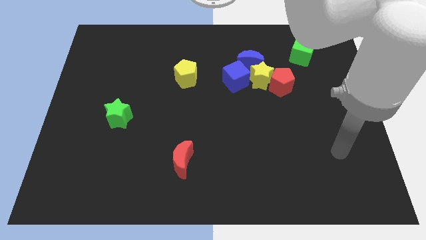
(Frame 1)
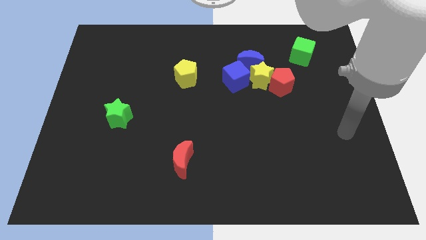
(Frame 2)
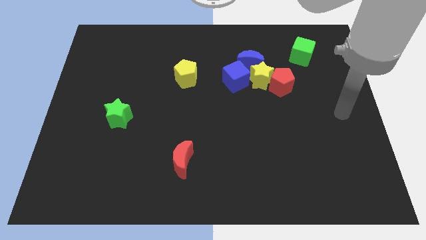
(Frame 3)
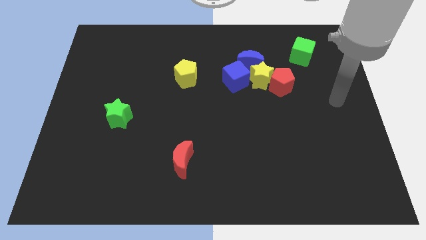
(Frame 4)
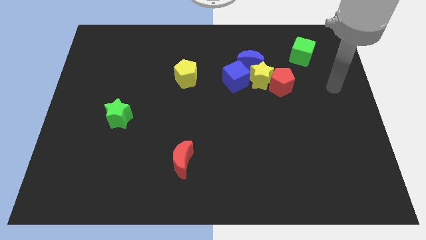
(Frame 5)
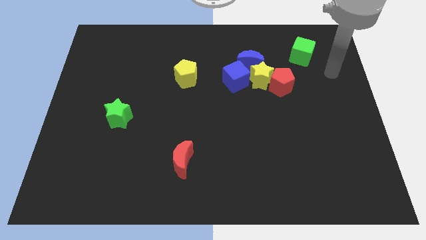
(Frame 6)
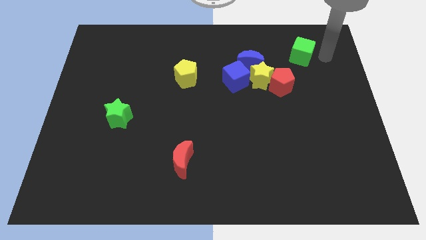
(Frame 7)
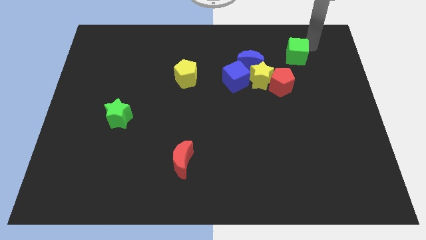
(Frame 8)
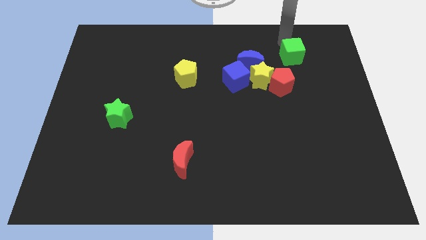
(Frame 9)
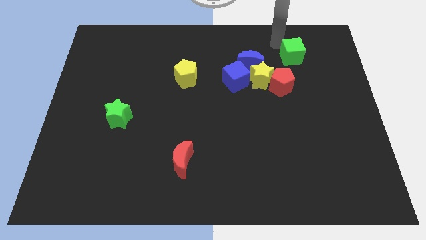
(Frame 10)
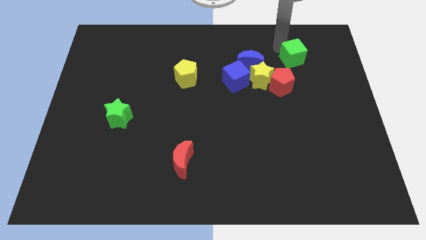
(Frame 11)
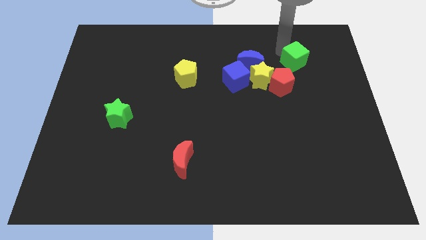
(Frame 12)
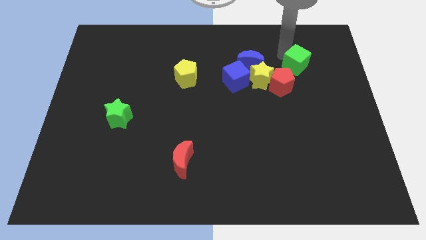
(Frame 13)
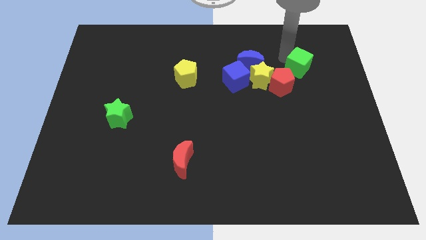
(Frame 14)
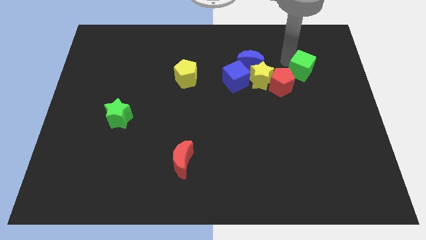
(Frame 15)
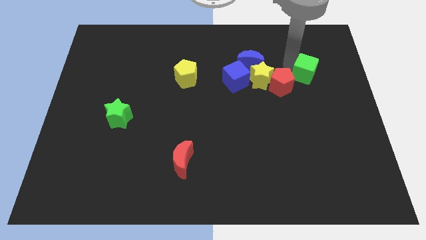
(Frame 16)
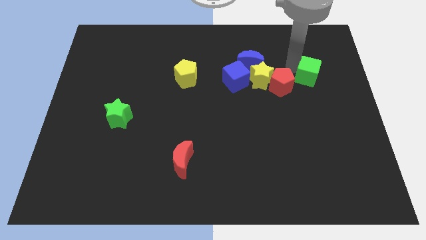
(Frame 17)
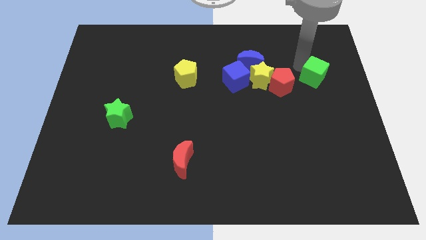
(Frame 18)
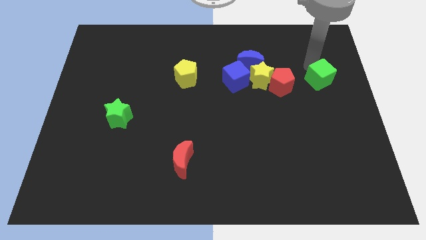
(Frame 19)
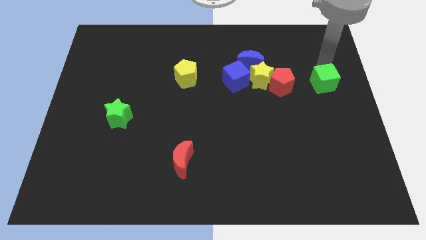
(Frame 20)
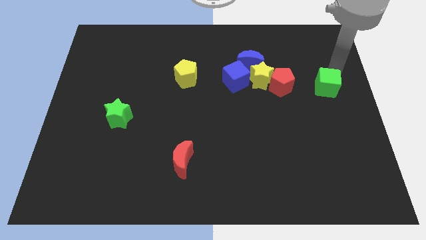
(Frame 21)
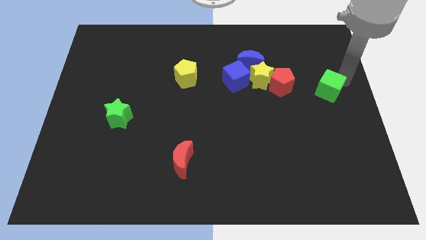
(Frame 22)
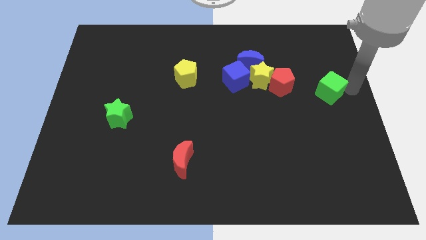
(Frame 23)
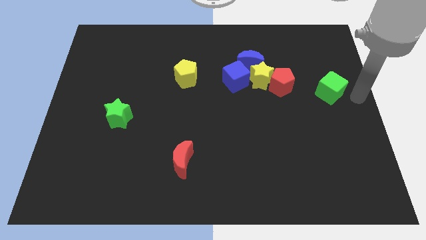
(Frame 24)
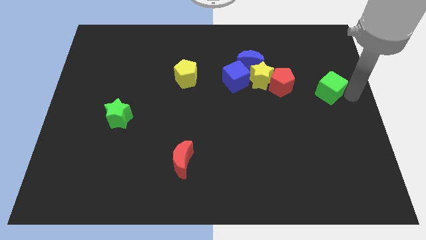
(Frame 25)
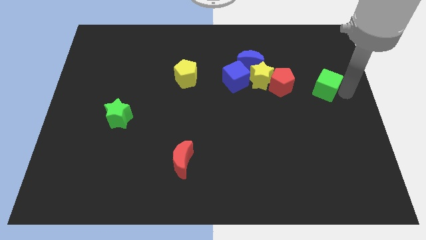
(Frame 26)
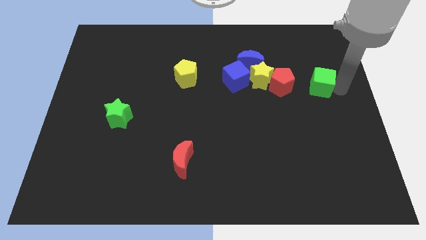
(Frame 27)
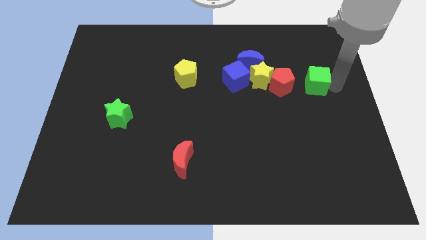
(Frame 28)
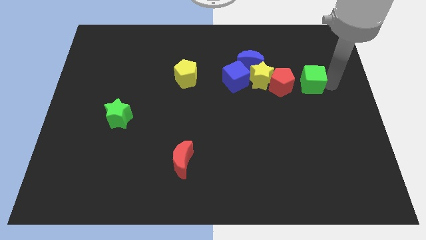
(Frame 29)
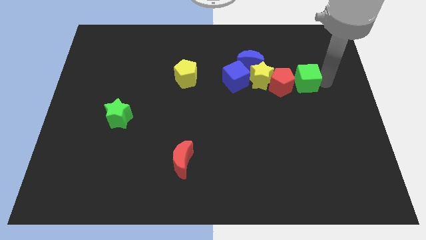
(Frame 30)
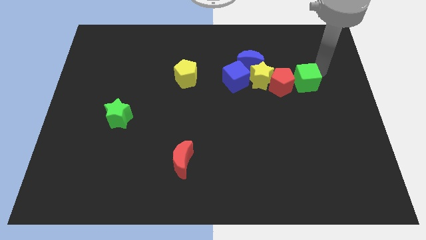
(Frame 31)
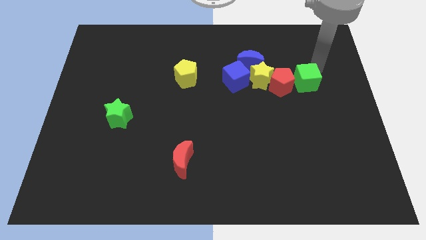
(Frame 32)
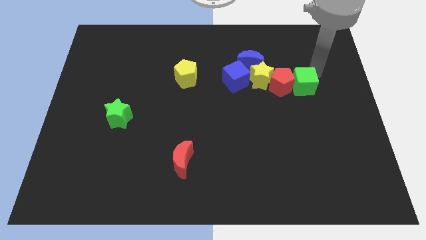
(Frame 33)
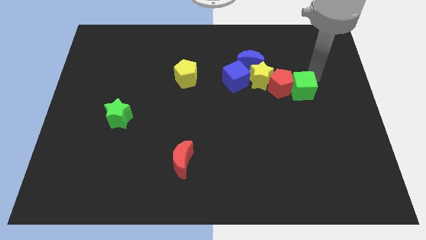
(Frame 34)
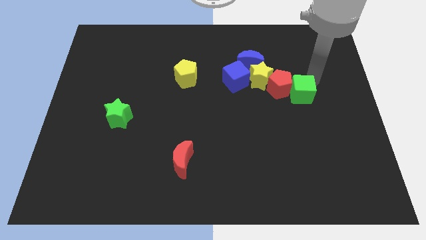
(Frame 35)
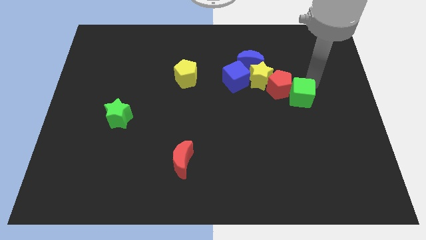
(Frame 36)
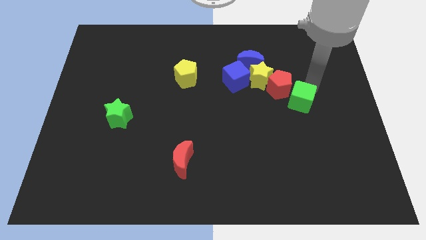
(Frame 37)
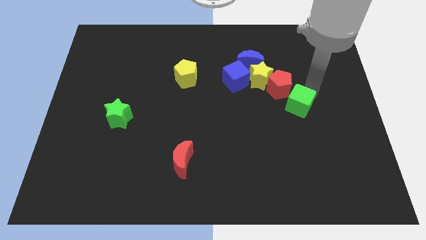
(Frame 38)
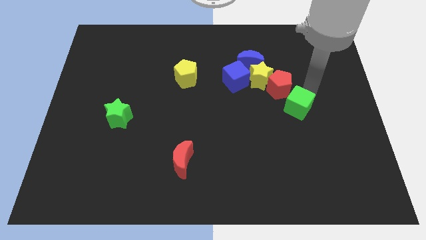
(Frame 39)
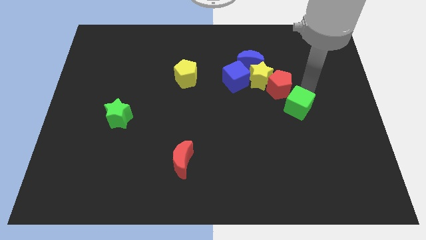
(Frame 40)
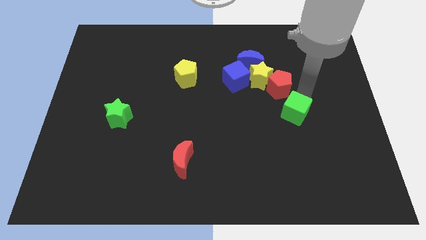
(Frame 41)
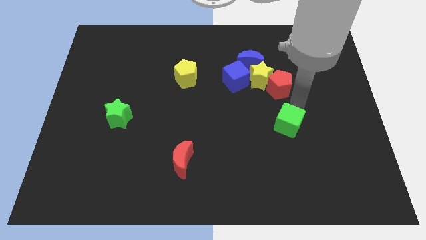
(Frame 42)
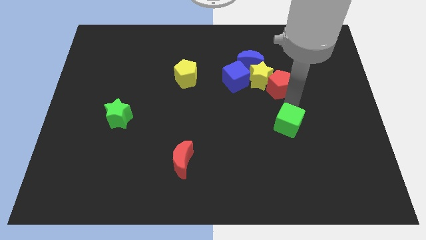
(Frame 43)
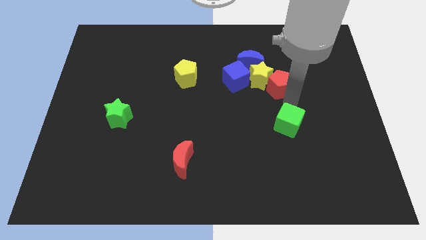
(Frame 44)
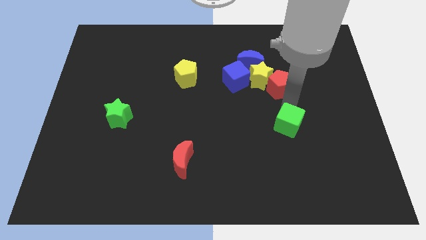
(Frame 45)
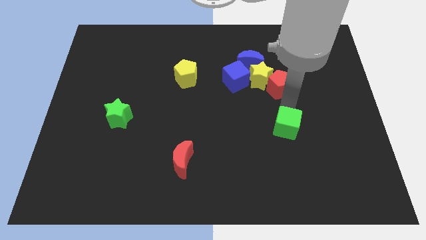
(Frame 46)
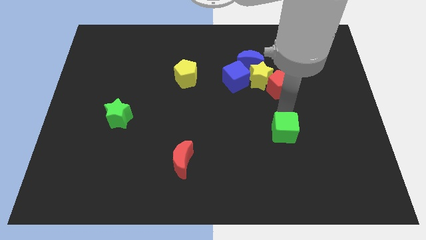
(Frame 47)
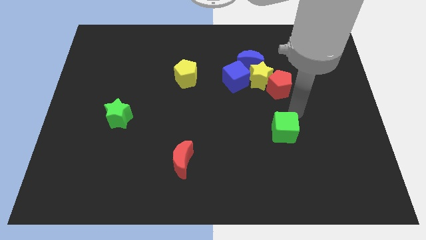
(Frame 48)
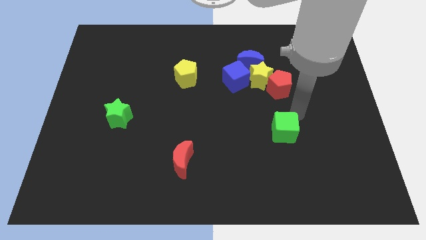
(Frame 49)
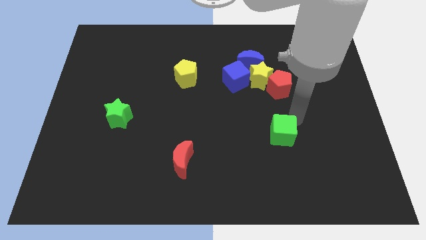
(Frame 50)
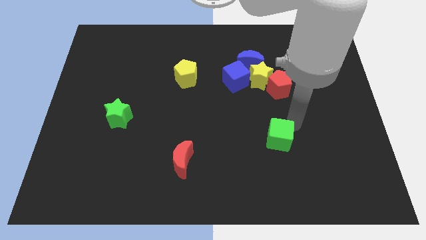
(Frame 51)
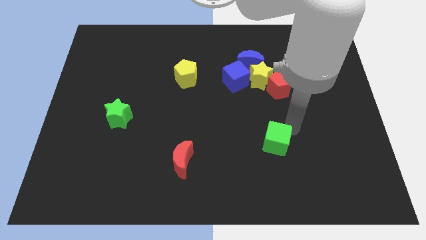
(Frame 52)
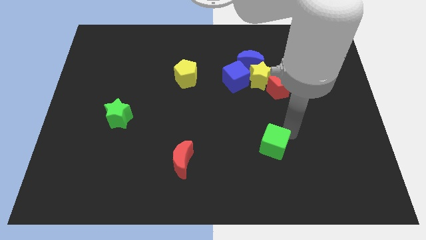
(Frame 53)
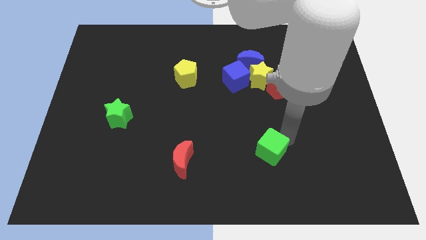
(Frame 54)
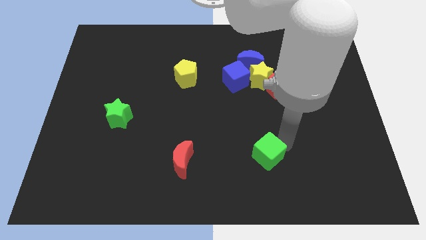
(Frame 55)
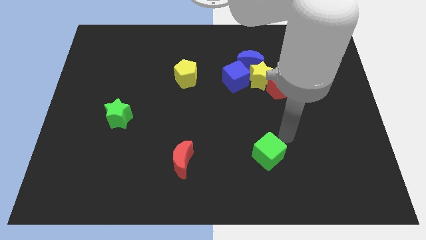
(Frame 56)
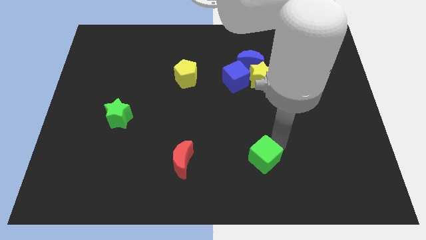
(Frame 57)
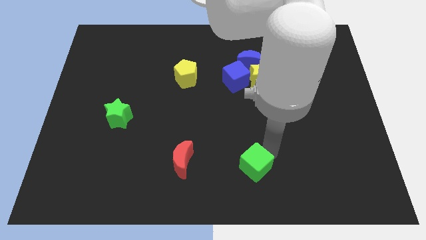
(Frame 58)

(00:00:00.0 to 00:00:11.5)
slide the green cube to the bottom
